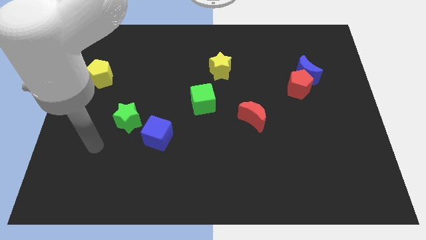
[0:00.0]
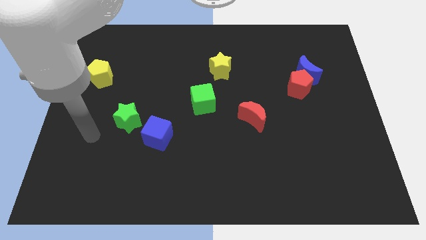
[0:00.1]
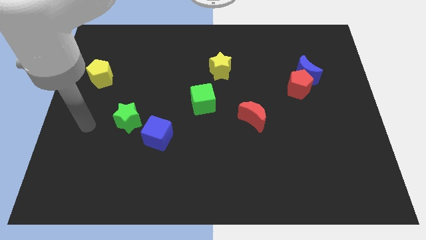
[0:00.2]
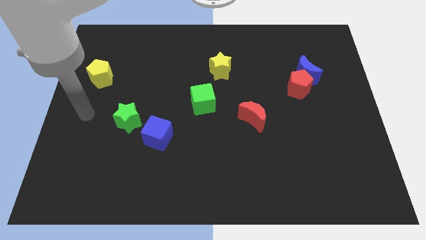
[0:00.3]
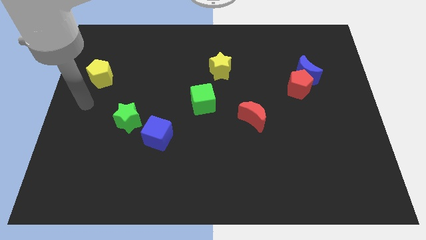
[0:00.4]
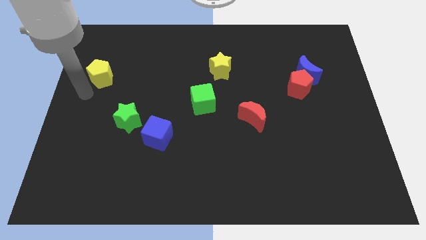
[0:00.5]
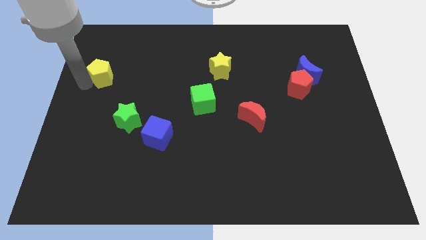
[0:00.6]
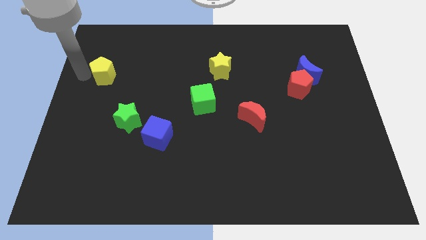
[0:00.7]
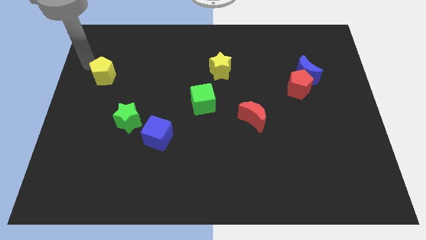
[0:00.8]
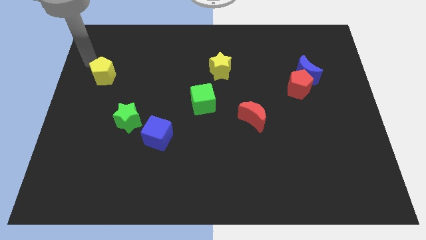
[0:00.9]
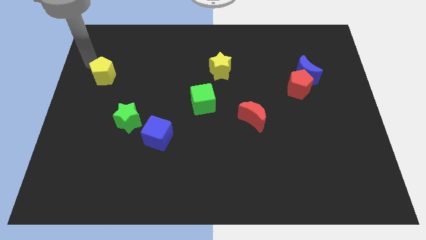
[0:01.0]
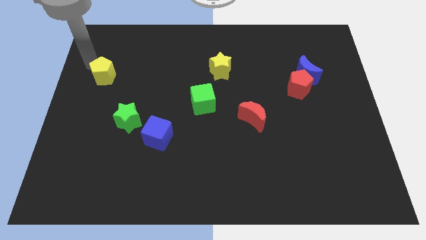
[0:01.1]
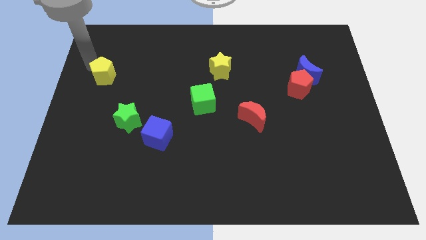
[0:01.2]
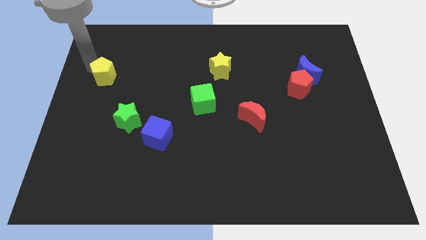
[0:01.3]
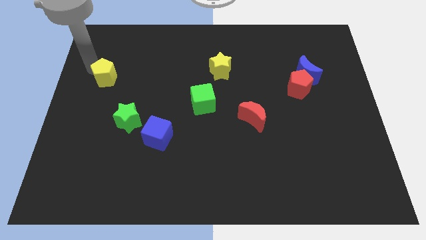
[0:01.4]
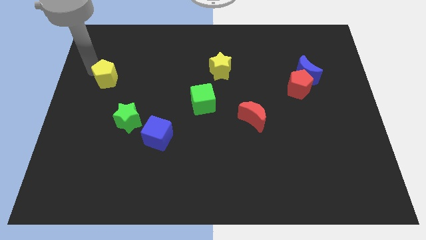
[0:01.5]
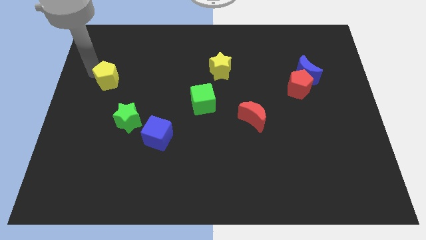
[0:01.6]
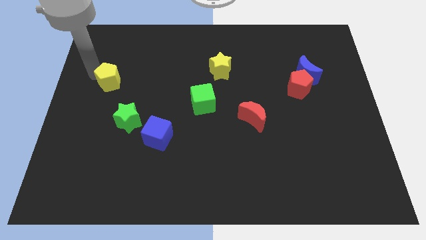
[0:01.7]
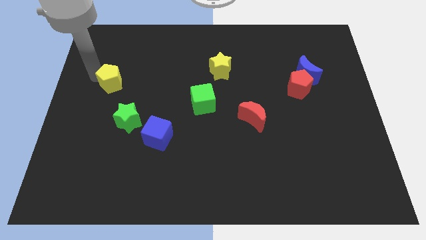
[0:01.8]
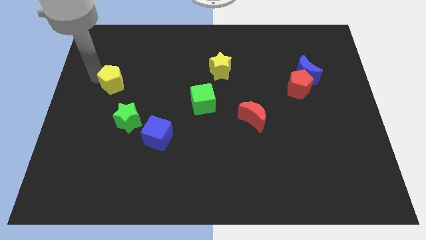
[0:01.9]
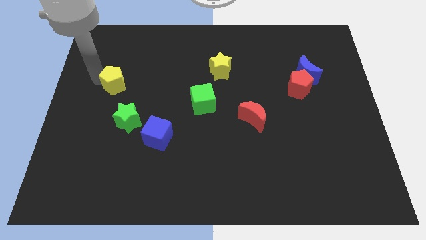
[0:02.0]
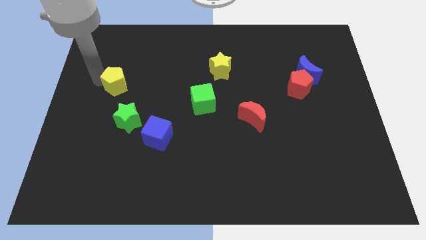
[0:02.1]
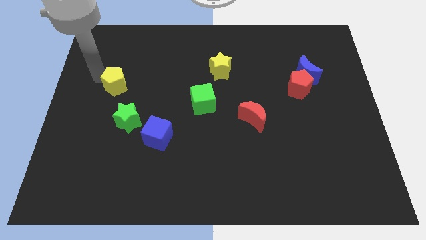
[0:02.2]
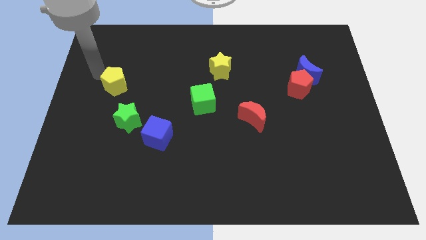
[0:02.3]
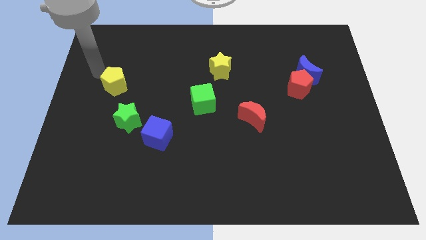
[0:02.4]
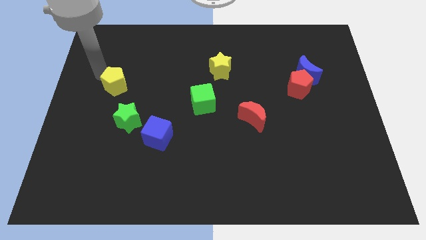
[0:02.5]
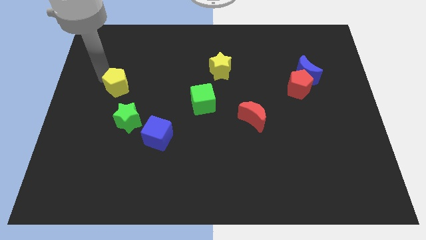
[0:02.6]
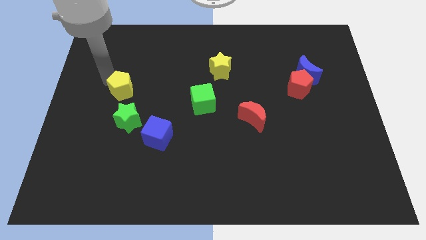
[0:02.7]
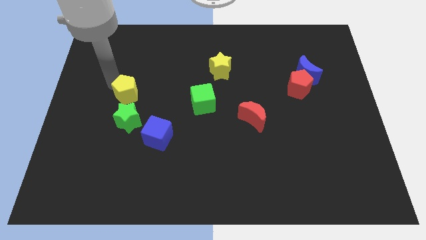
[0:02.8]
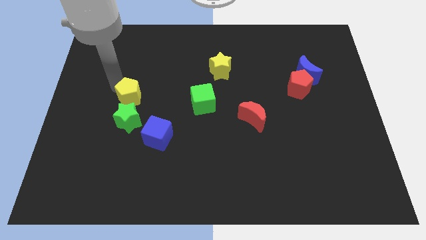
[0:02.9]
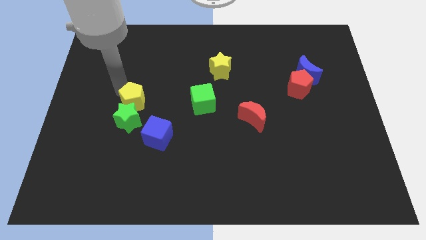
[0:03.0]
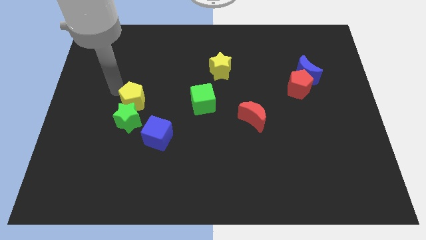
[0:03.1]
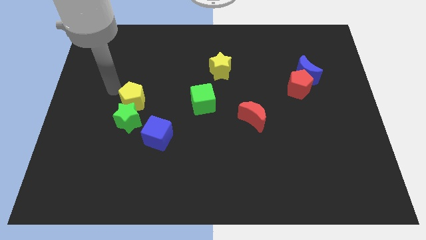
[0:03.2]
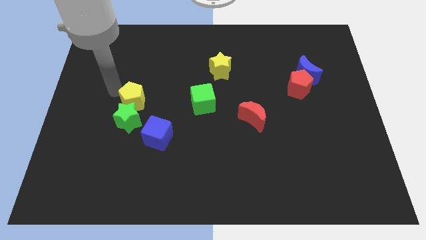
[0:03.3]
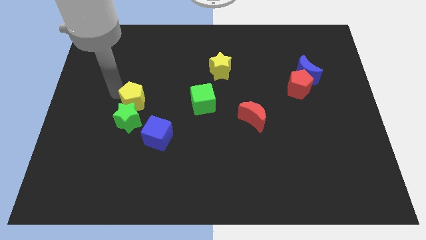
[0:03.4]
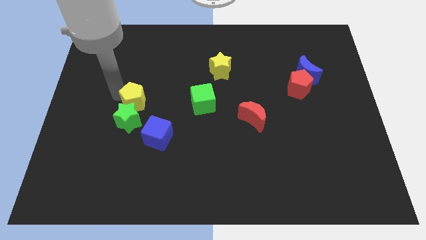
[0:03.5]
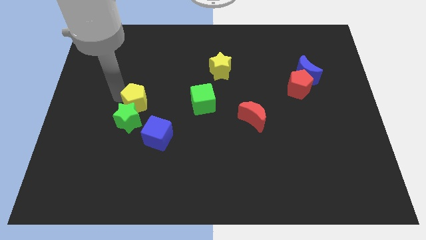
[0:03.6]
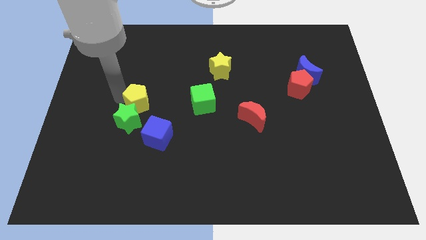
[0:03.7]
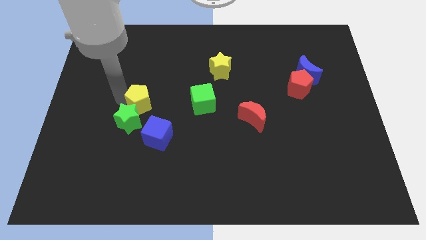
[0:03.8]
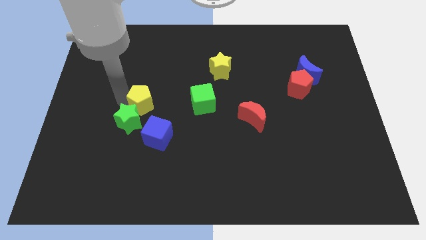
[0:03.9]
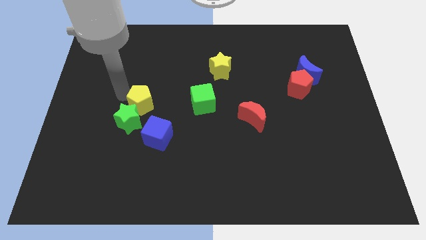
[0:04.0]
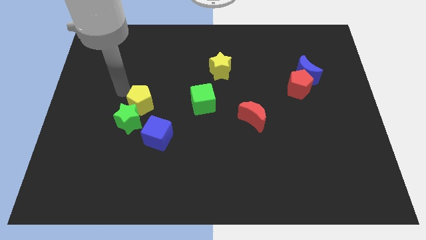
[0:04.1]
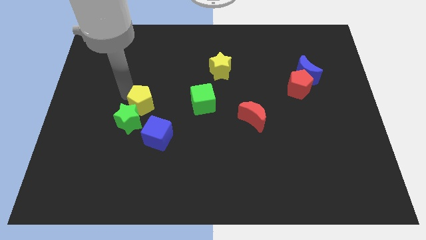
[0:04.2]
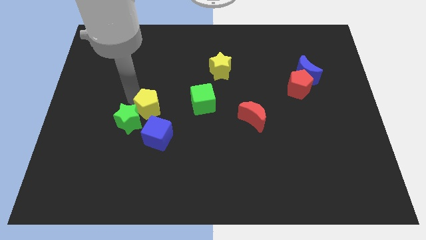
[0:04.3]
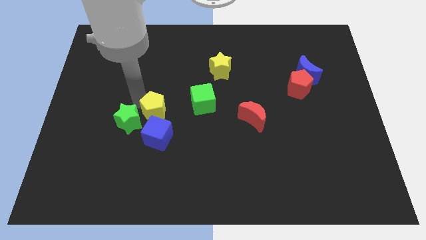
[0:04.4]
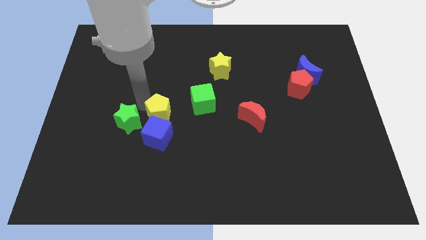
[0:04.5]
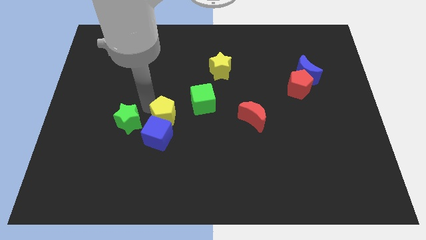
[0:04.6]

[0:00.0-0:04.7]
move the yellow pentagon down and to the right

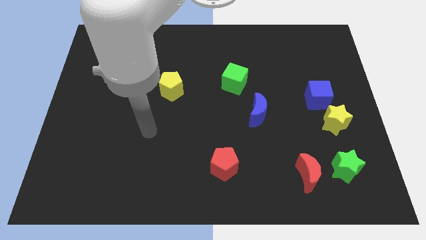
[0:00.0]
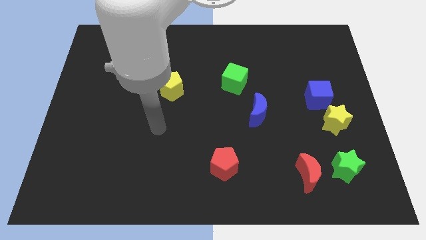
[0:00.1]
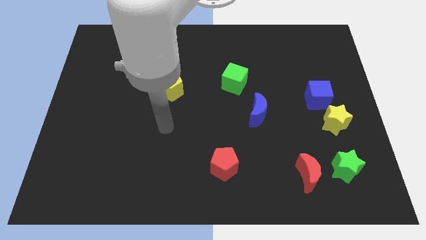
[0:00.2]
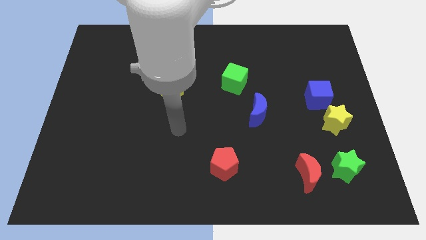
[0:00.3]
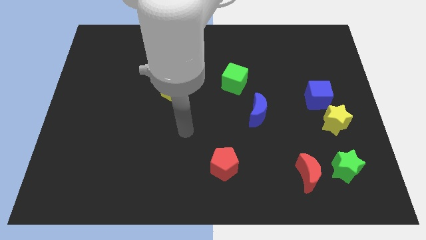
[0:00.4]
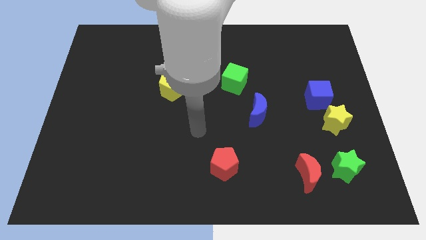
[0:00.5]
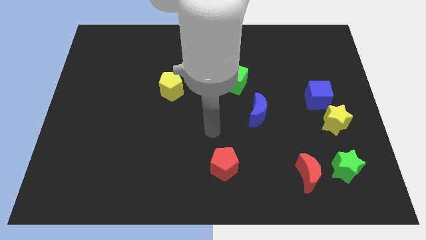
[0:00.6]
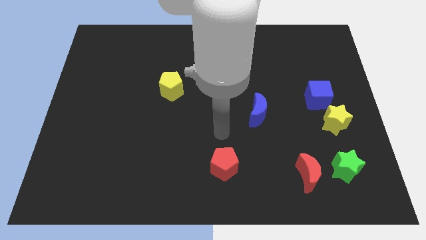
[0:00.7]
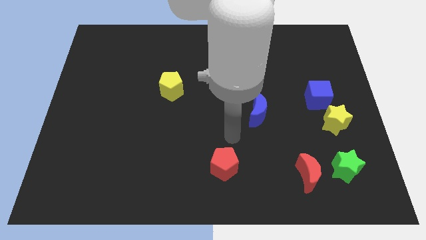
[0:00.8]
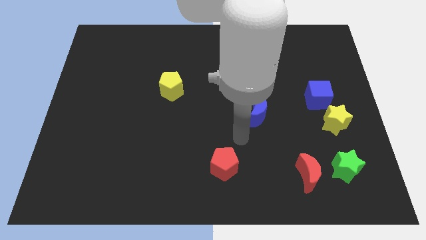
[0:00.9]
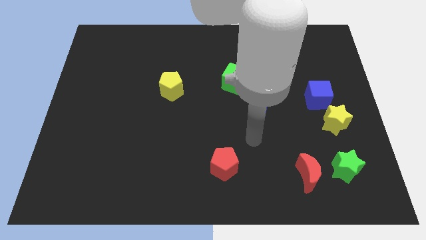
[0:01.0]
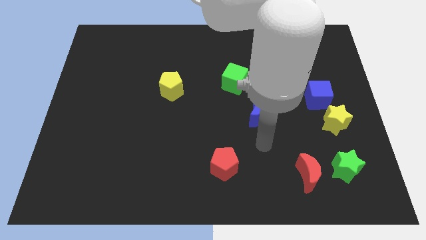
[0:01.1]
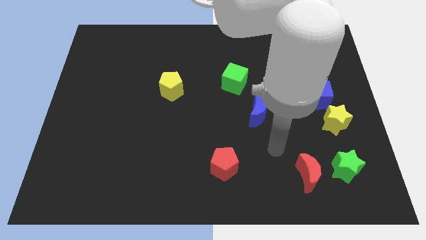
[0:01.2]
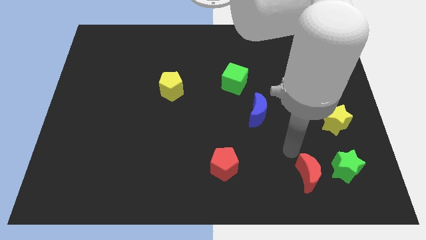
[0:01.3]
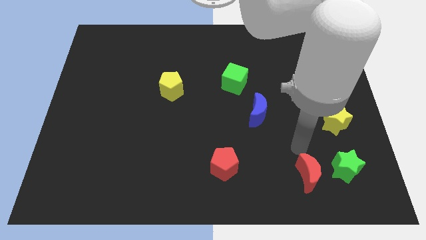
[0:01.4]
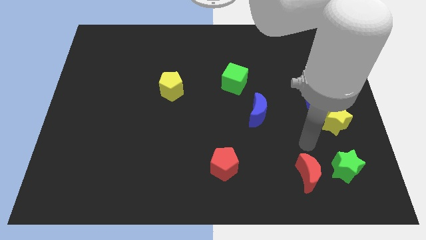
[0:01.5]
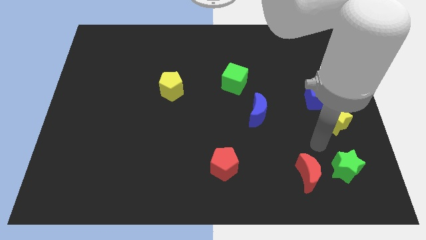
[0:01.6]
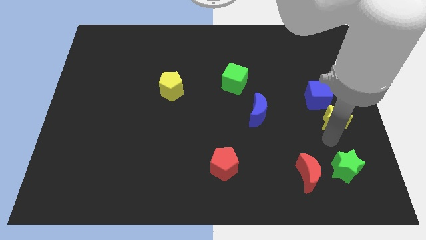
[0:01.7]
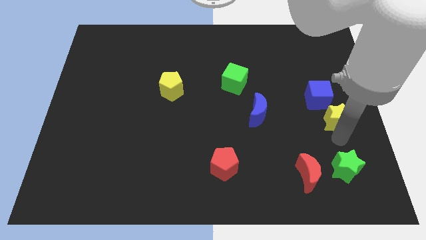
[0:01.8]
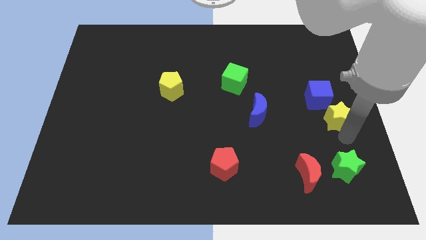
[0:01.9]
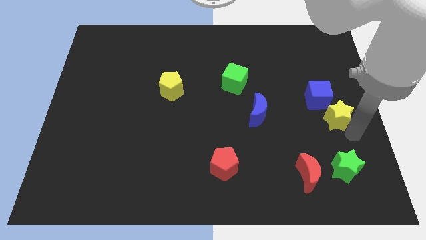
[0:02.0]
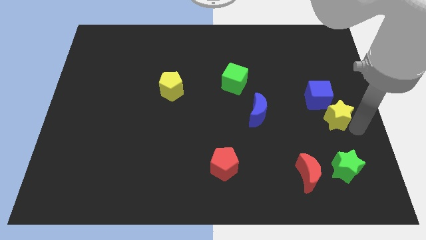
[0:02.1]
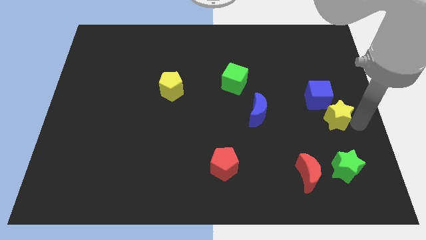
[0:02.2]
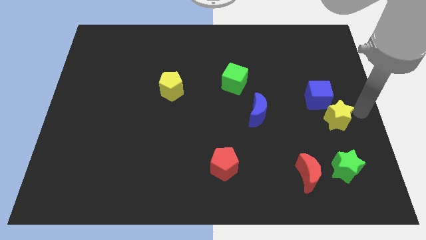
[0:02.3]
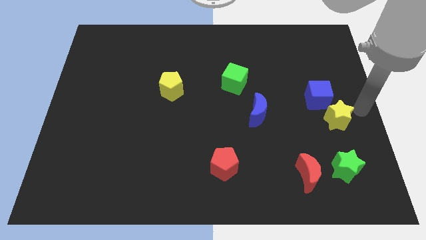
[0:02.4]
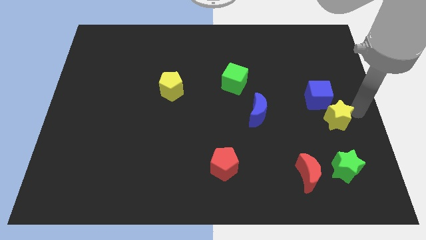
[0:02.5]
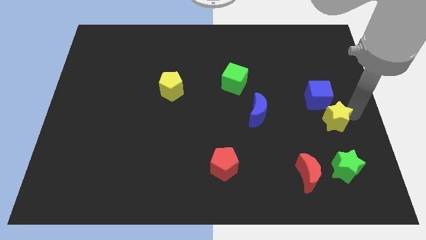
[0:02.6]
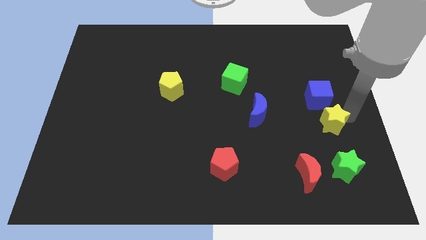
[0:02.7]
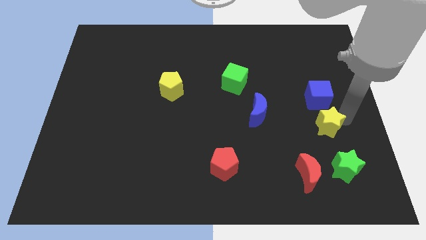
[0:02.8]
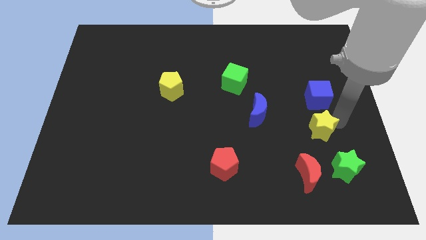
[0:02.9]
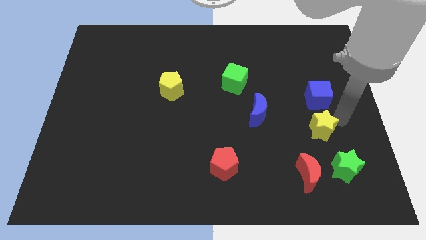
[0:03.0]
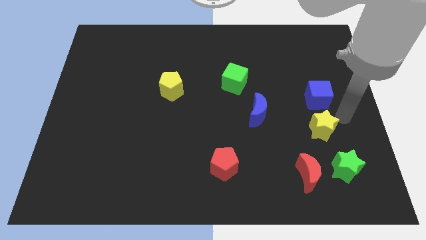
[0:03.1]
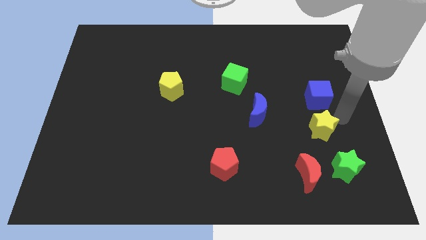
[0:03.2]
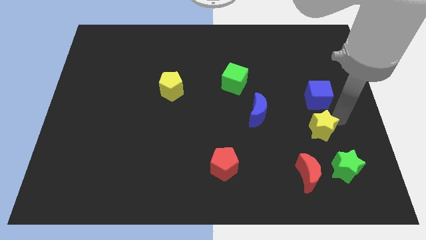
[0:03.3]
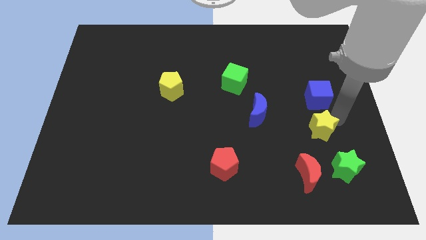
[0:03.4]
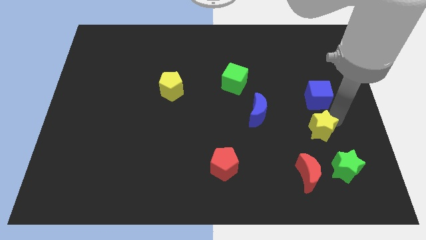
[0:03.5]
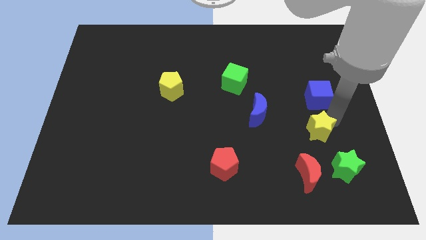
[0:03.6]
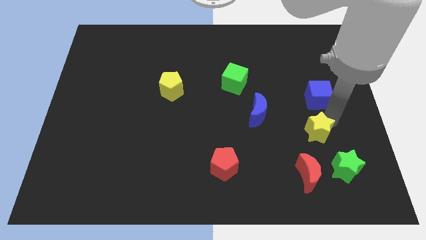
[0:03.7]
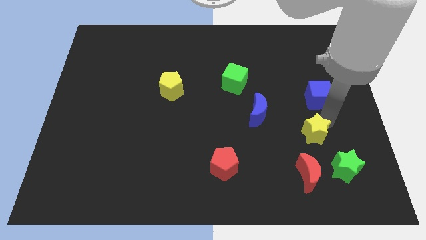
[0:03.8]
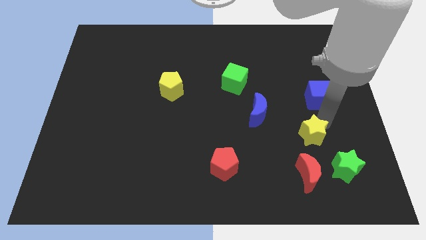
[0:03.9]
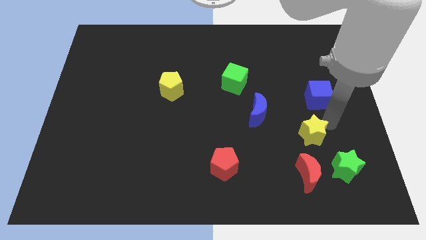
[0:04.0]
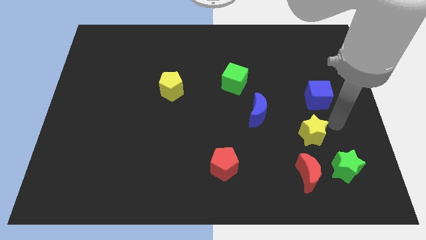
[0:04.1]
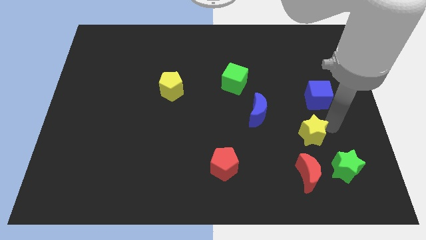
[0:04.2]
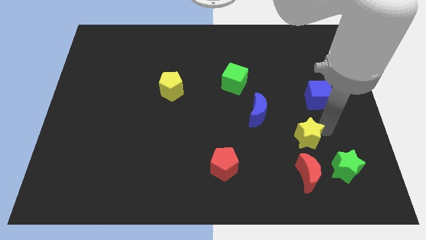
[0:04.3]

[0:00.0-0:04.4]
push the yellow star a bit downwards and then to the left
